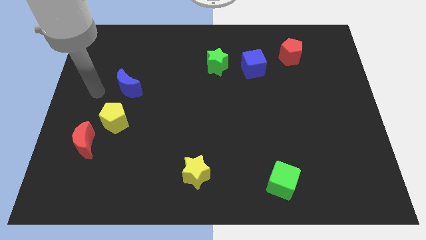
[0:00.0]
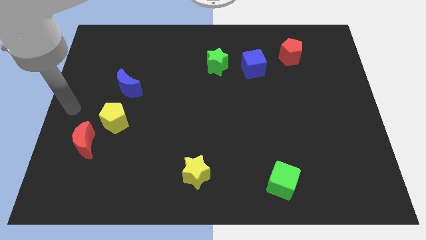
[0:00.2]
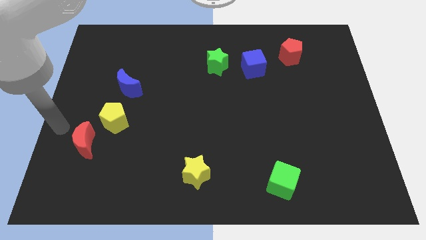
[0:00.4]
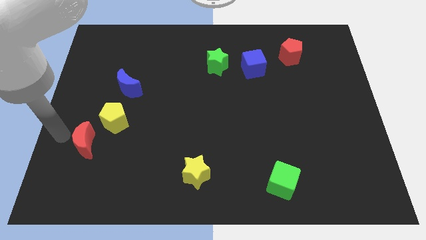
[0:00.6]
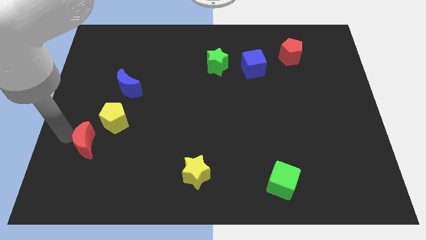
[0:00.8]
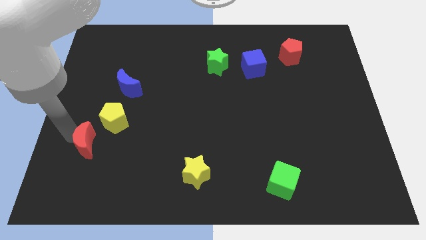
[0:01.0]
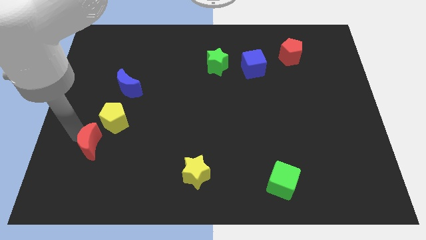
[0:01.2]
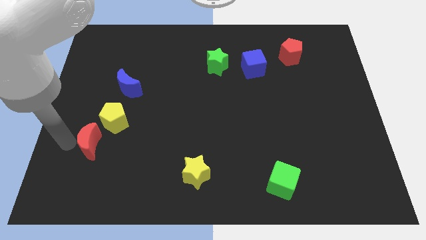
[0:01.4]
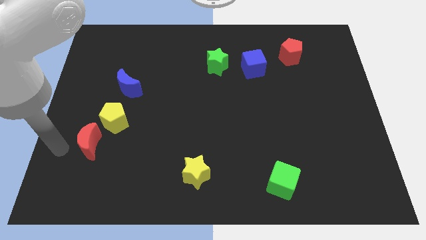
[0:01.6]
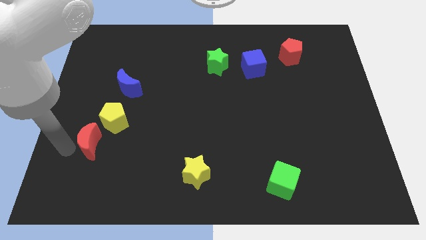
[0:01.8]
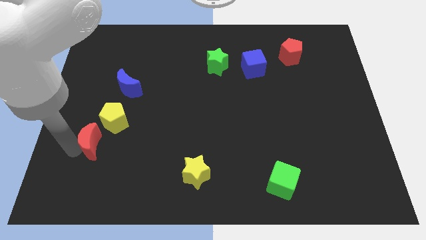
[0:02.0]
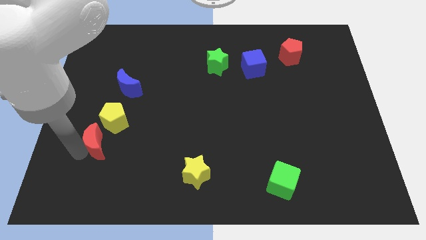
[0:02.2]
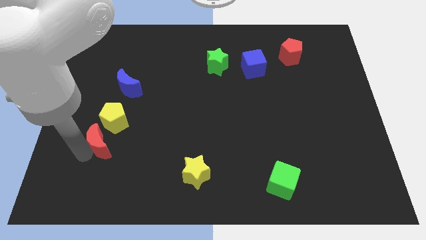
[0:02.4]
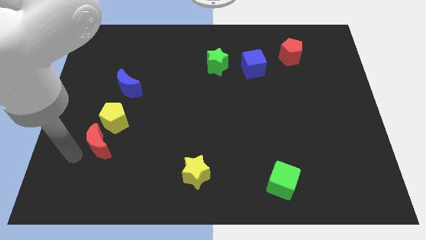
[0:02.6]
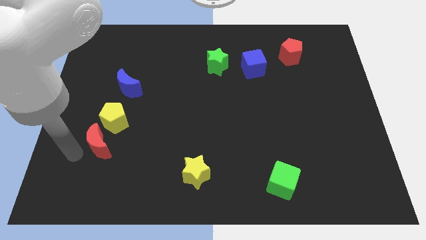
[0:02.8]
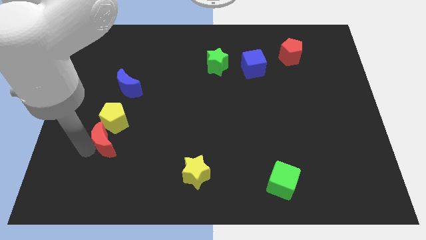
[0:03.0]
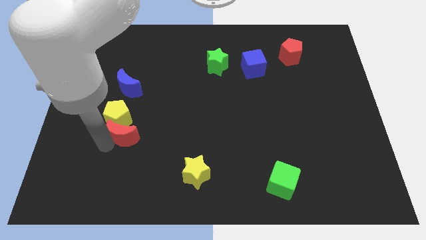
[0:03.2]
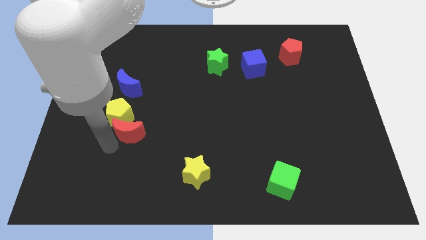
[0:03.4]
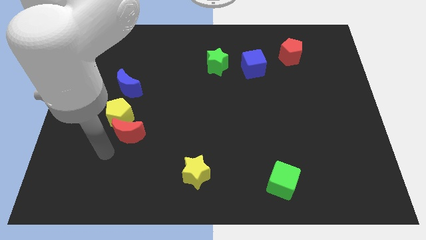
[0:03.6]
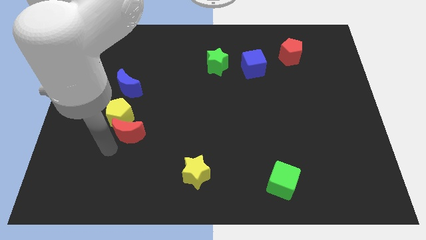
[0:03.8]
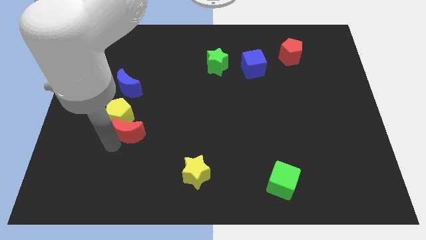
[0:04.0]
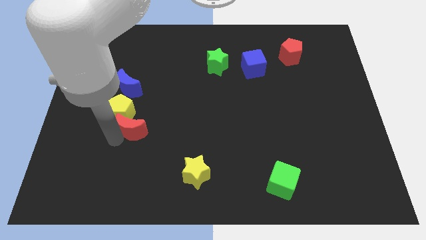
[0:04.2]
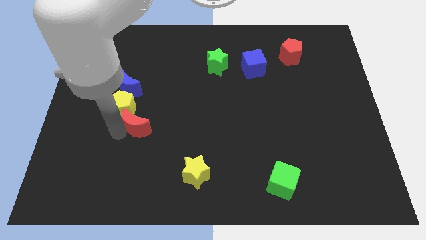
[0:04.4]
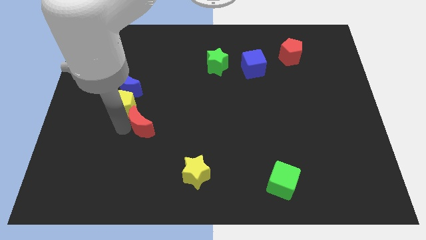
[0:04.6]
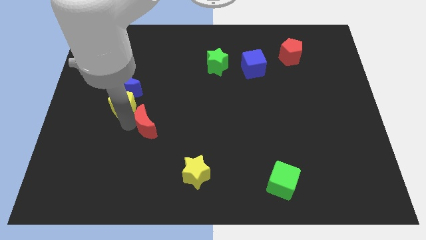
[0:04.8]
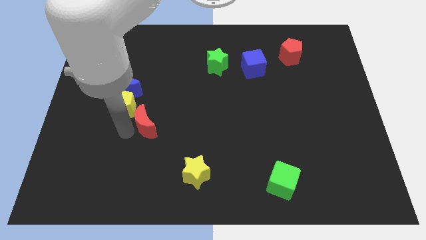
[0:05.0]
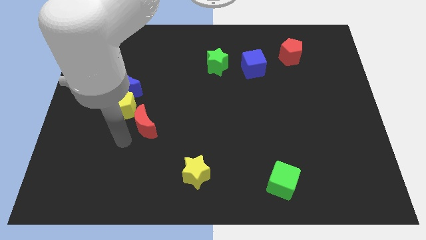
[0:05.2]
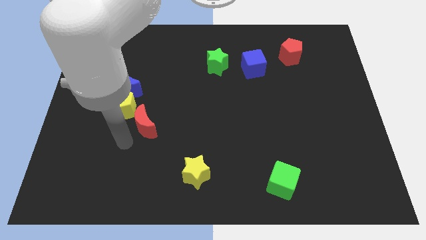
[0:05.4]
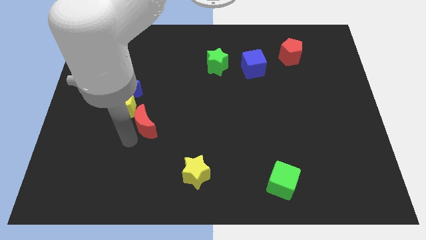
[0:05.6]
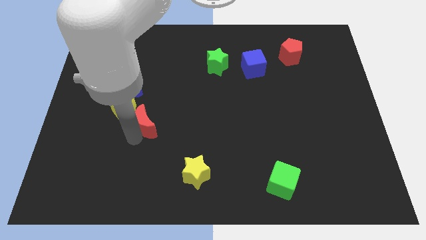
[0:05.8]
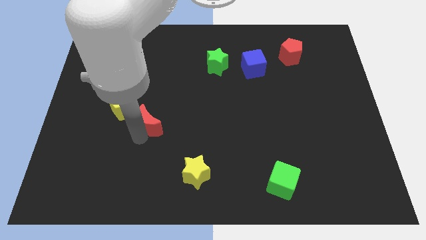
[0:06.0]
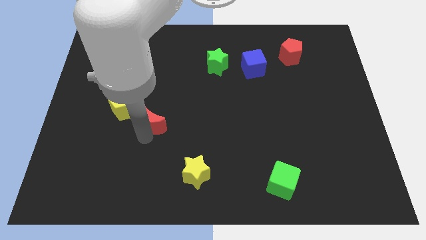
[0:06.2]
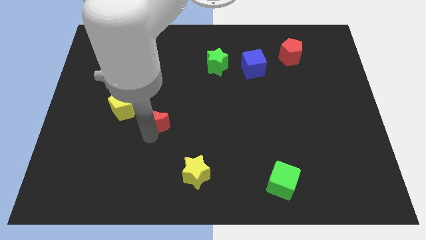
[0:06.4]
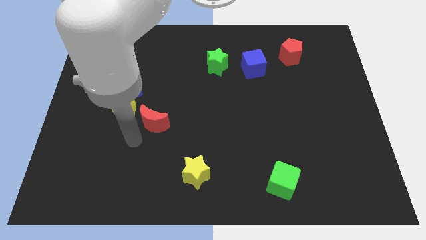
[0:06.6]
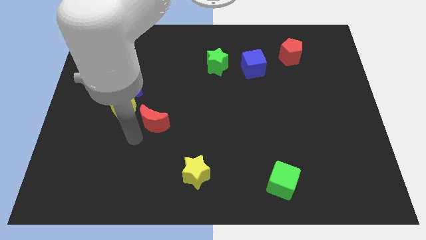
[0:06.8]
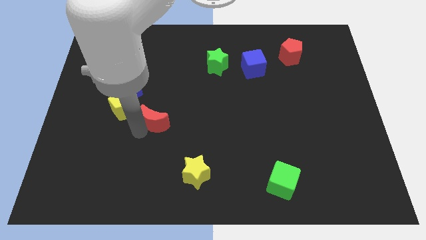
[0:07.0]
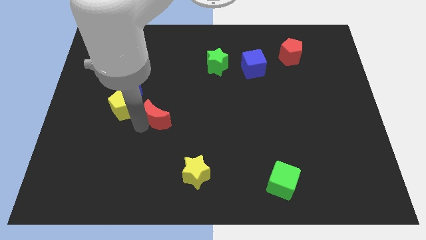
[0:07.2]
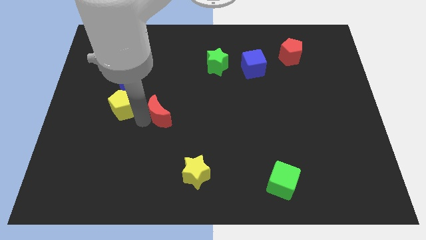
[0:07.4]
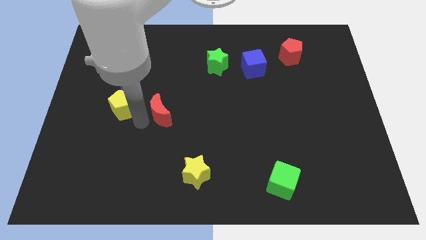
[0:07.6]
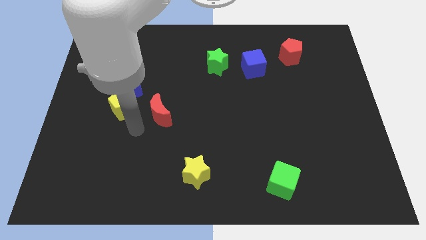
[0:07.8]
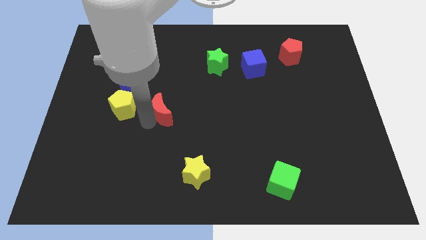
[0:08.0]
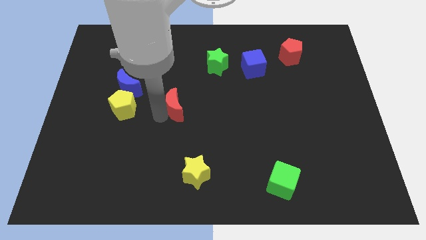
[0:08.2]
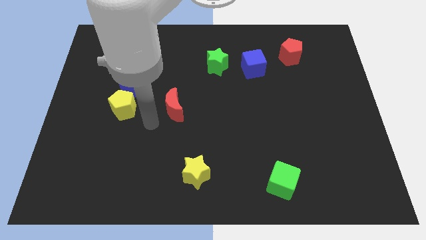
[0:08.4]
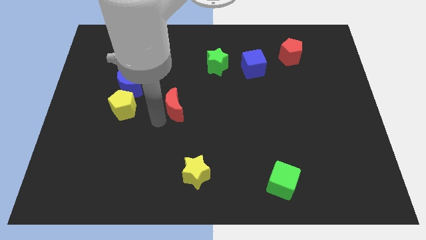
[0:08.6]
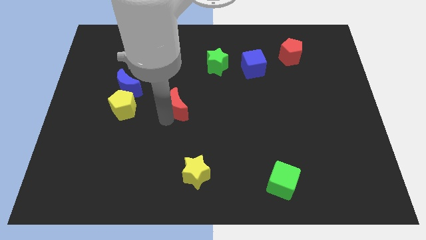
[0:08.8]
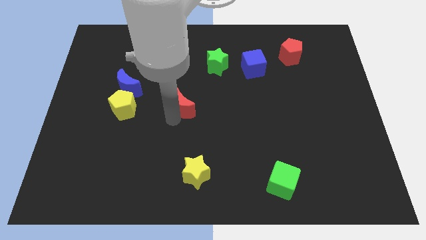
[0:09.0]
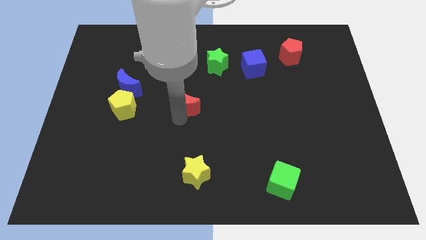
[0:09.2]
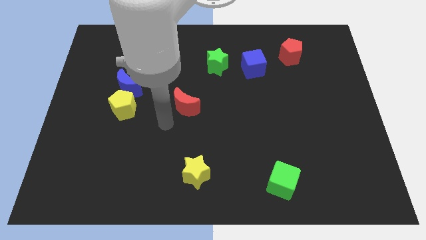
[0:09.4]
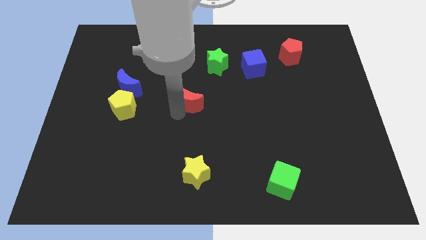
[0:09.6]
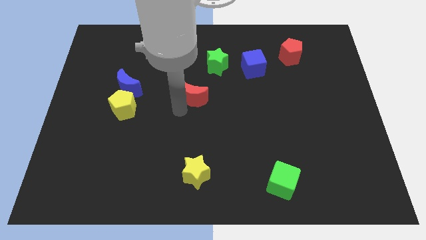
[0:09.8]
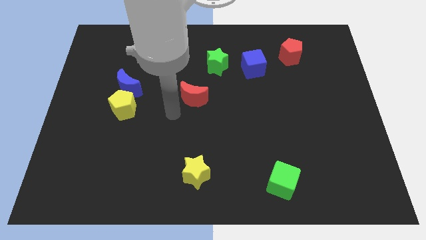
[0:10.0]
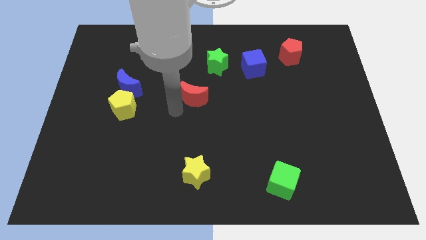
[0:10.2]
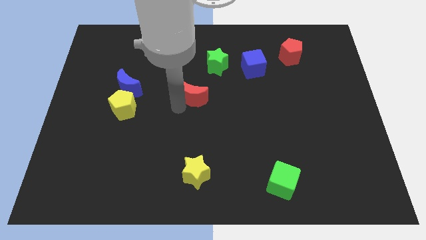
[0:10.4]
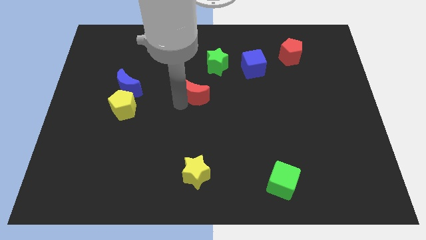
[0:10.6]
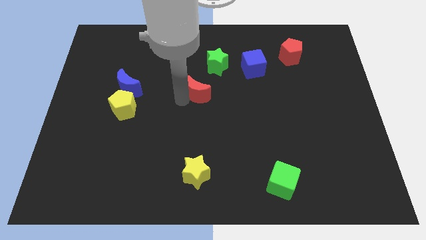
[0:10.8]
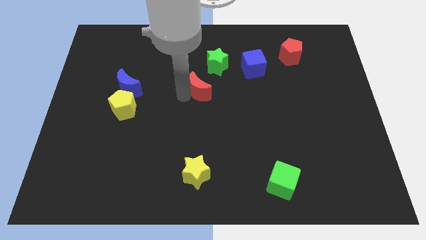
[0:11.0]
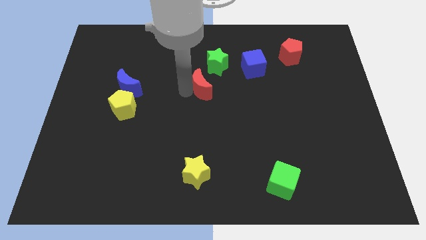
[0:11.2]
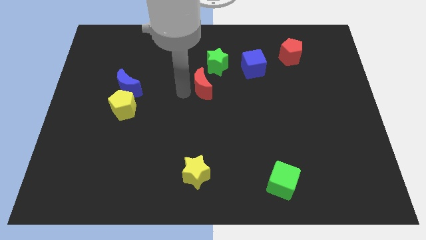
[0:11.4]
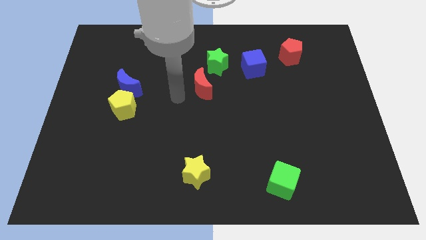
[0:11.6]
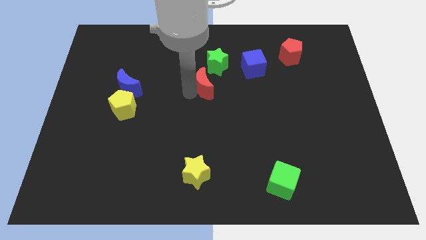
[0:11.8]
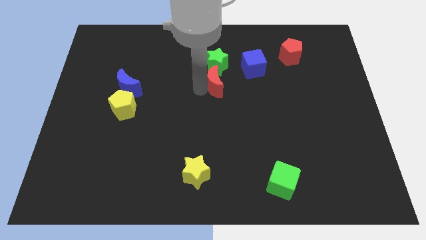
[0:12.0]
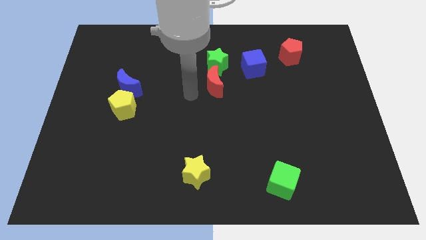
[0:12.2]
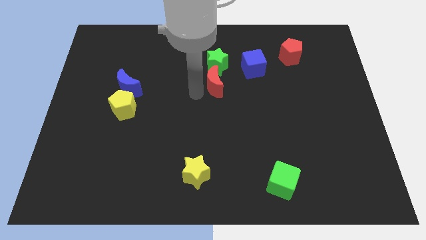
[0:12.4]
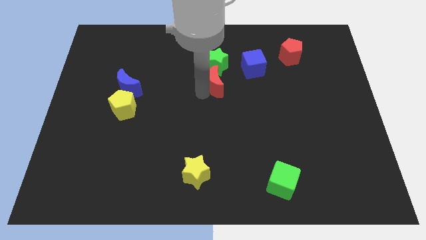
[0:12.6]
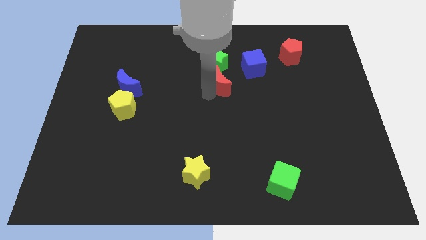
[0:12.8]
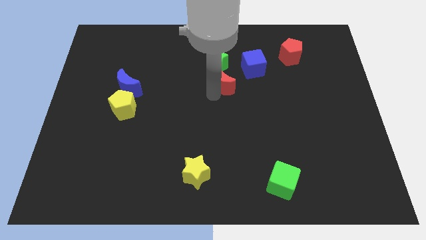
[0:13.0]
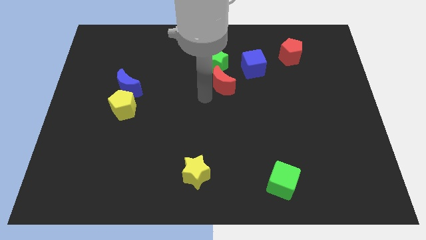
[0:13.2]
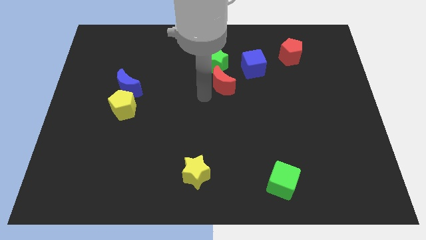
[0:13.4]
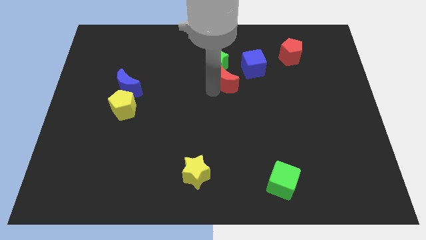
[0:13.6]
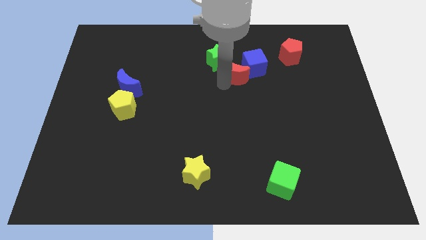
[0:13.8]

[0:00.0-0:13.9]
slide the red moon next to the blue cube
